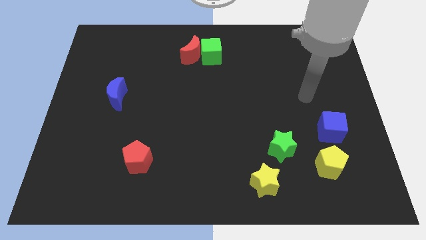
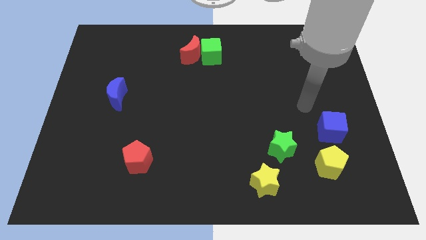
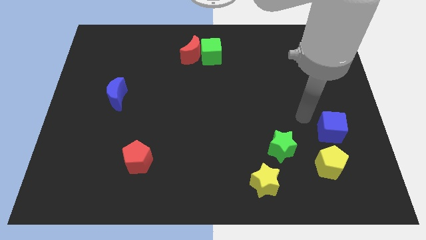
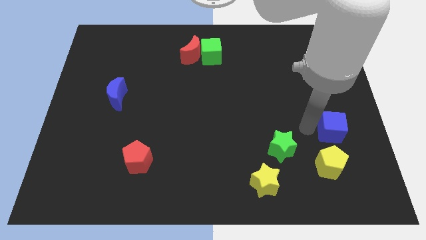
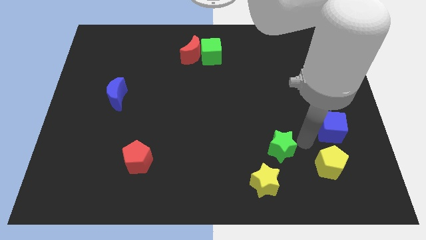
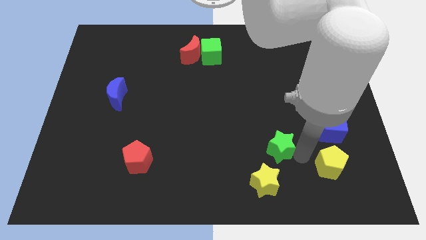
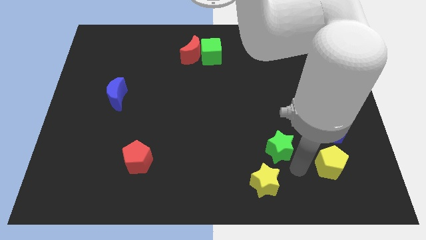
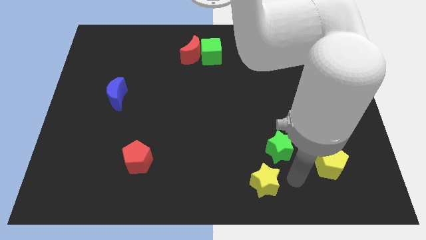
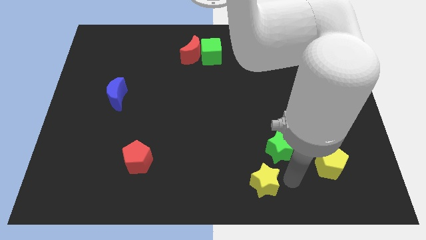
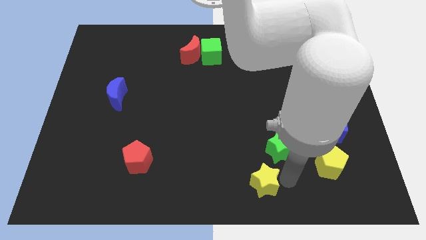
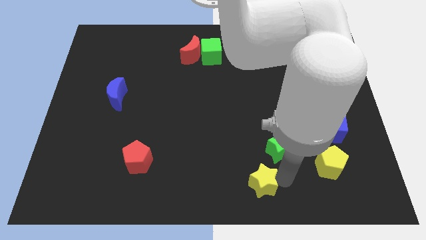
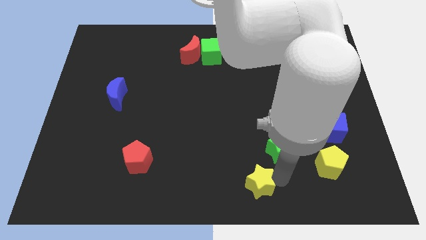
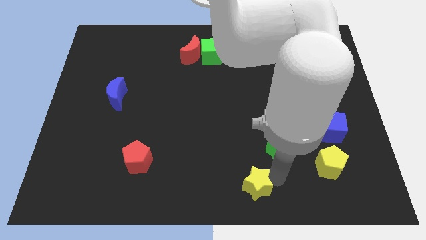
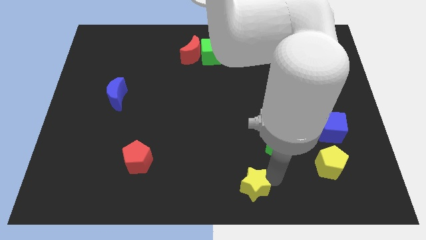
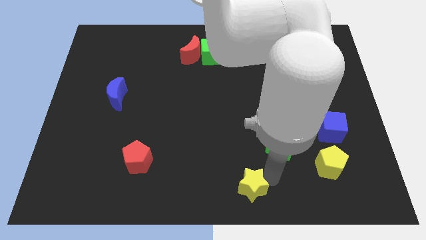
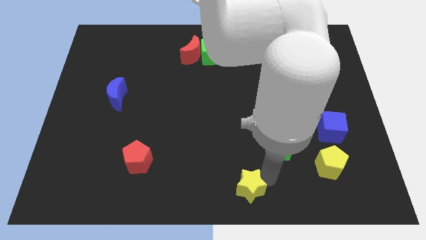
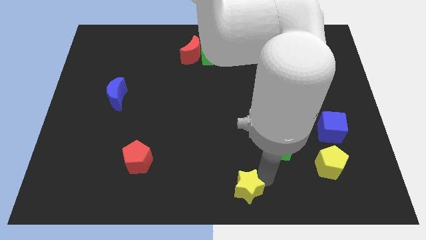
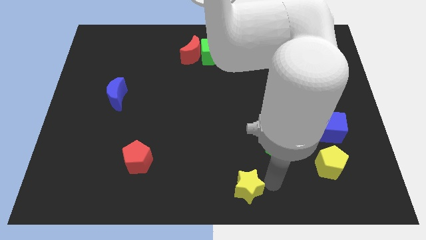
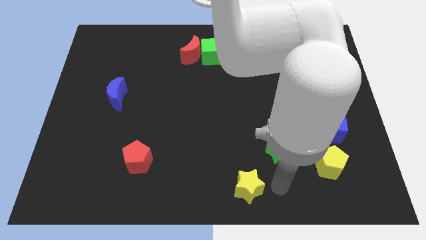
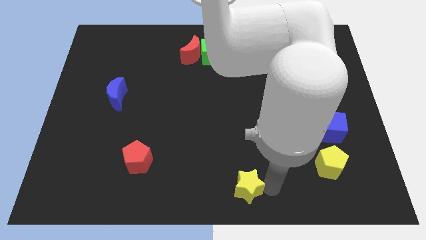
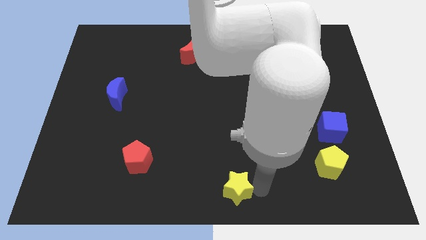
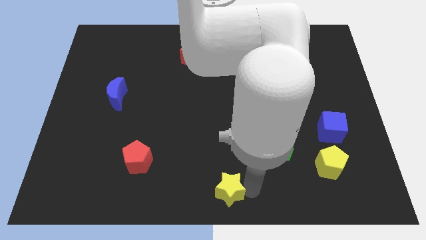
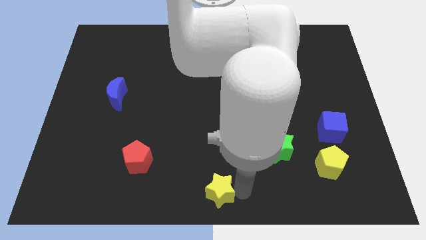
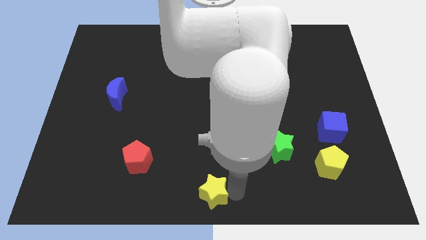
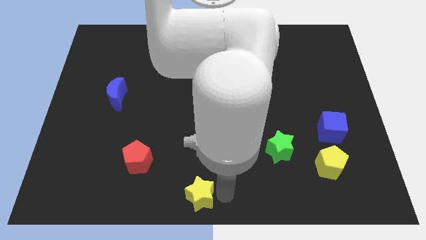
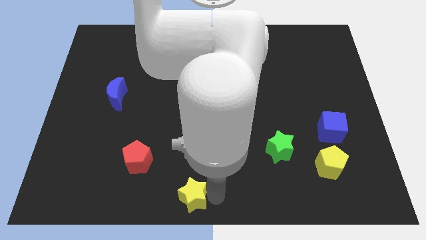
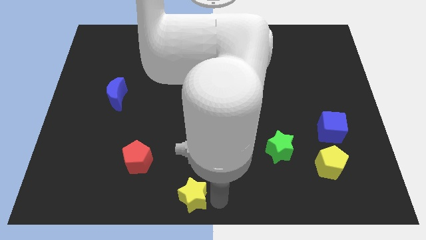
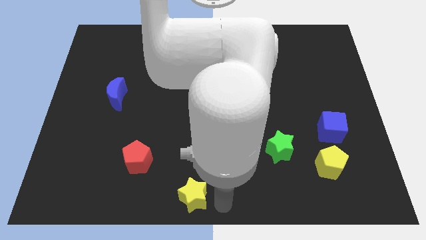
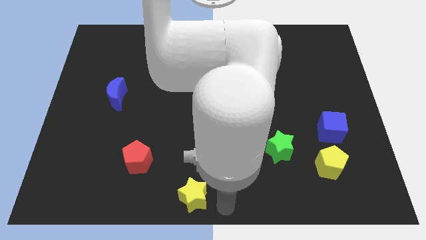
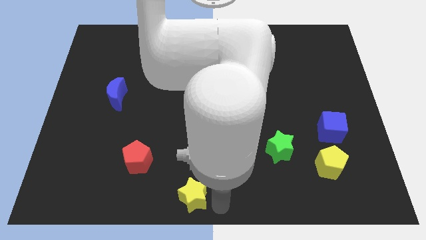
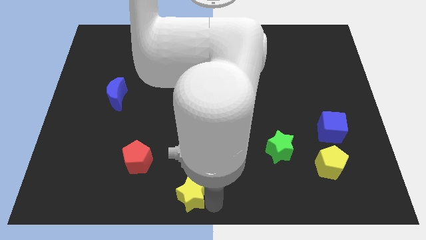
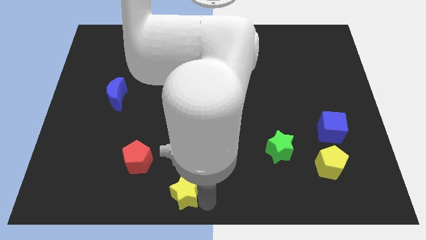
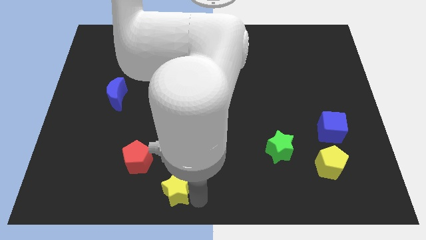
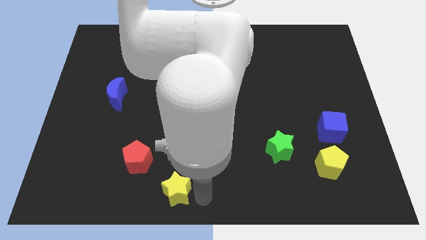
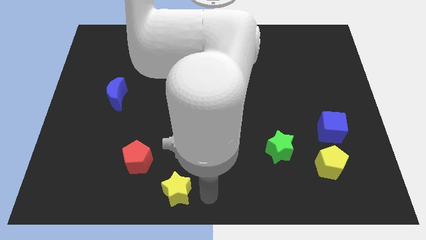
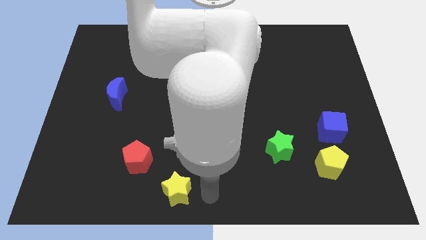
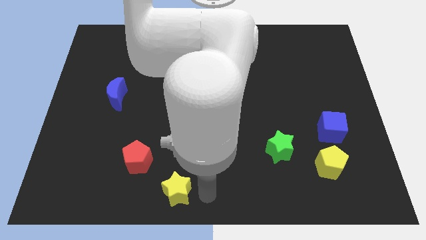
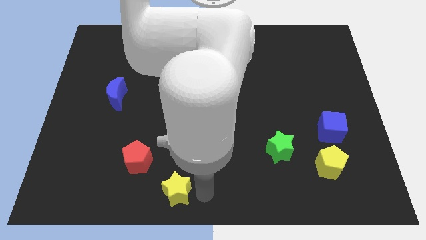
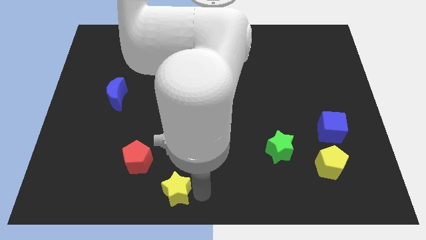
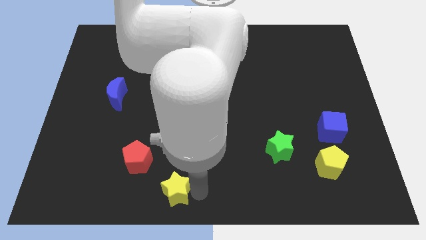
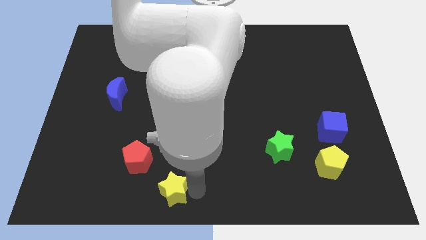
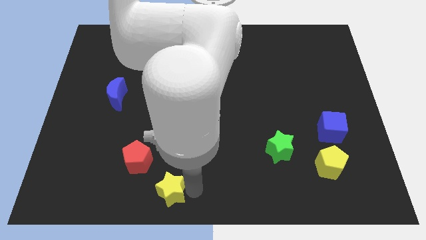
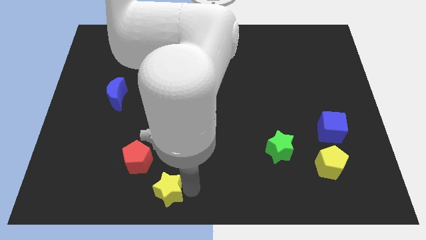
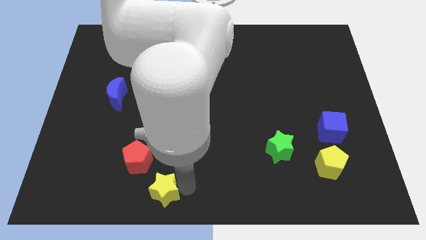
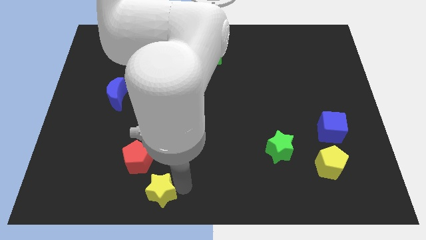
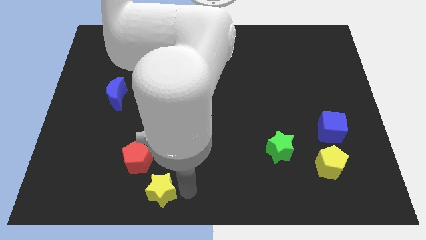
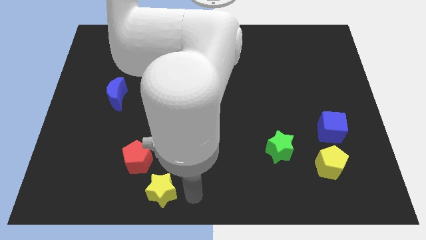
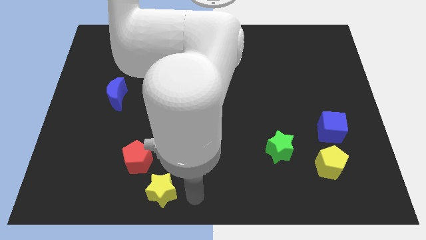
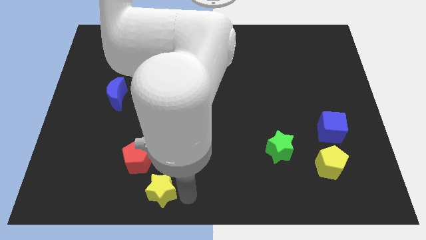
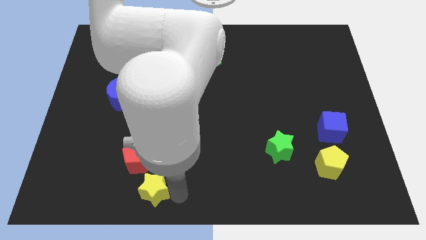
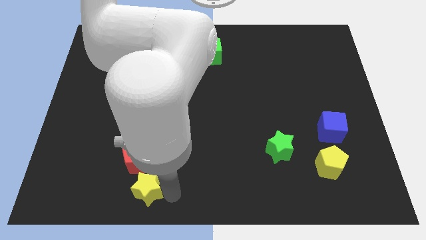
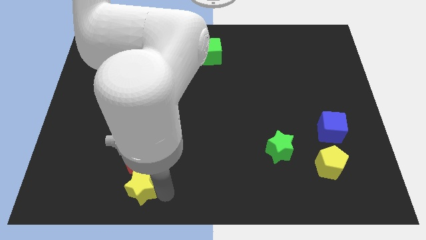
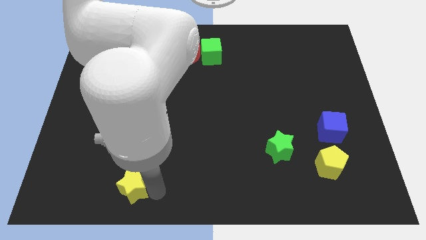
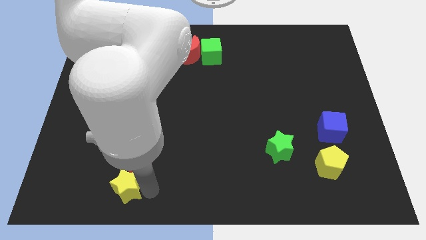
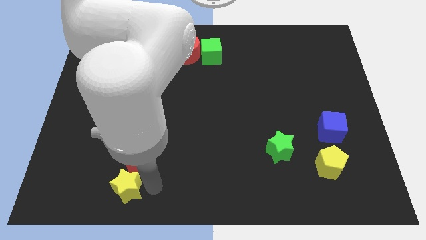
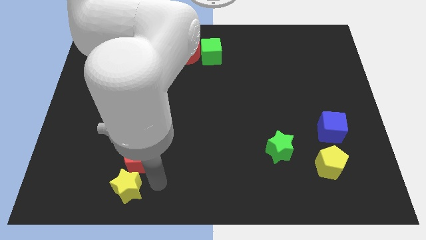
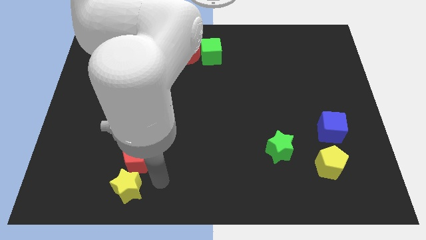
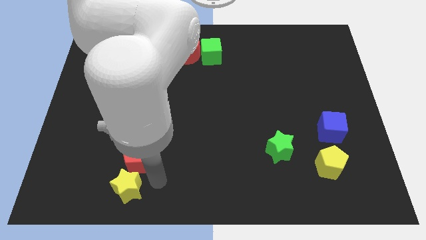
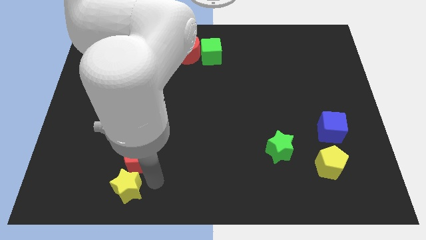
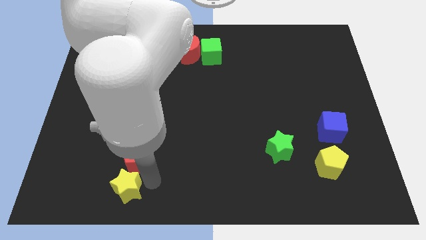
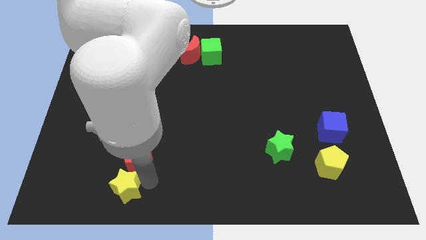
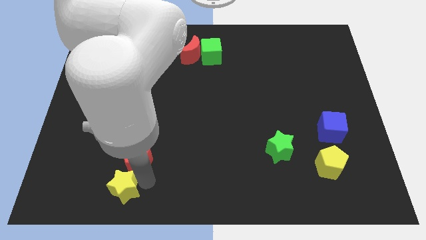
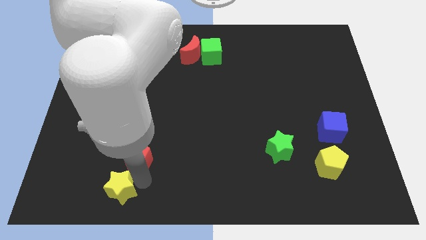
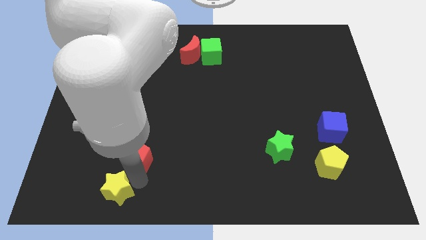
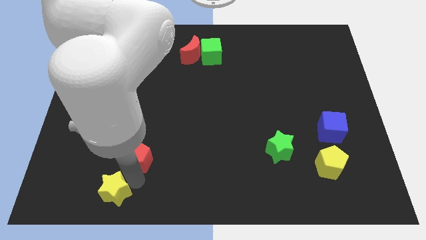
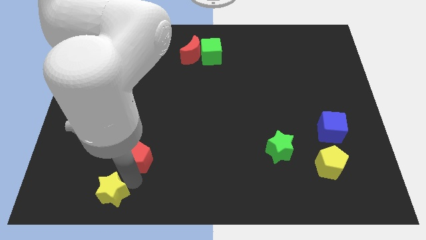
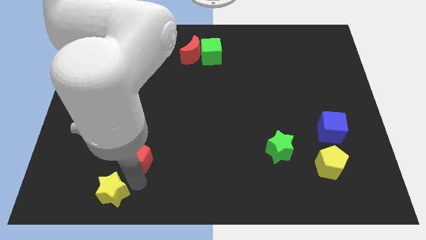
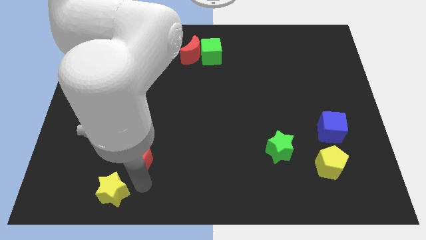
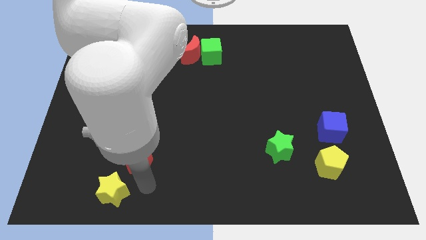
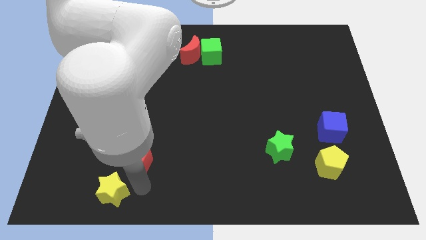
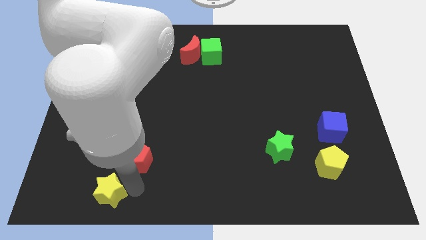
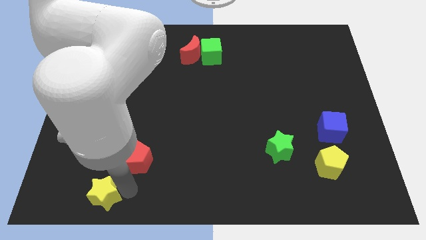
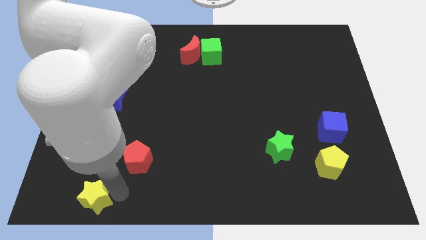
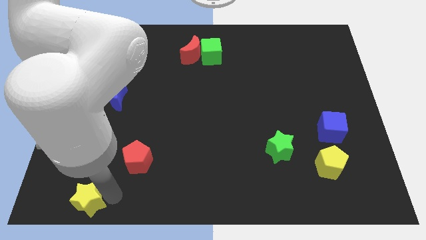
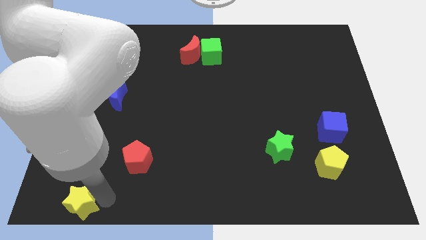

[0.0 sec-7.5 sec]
put the yellow star to the bottom left corner
